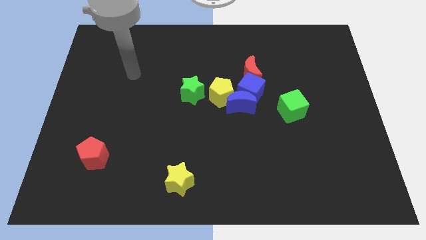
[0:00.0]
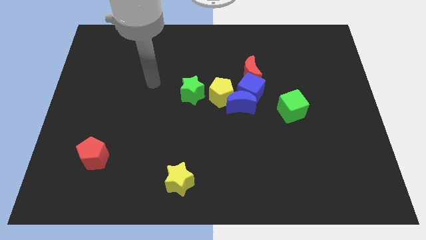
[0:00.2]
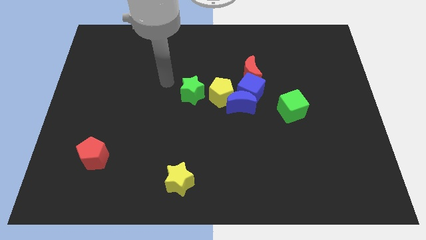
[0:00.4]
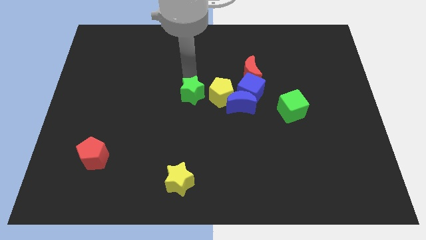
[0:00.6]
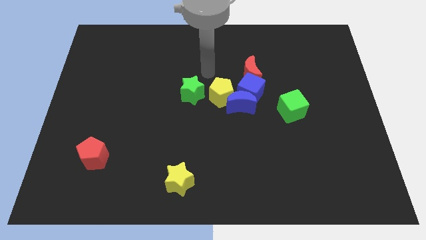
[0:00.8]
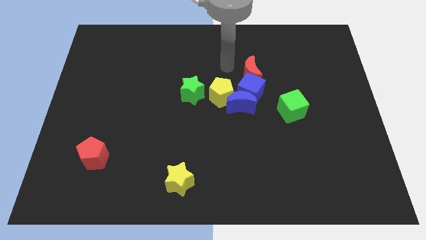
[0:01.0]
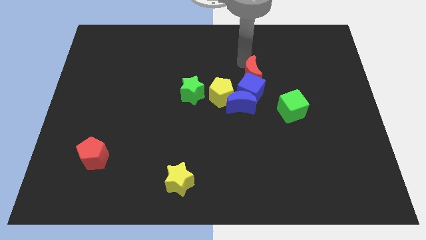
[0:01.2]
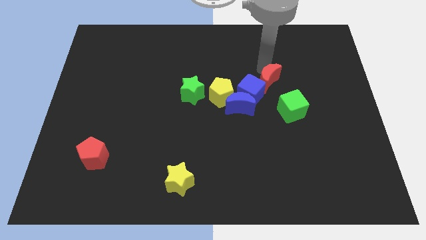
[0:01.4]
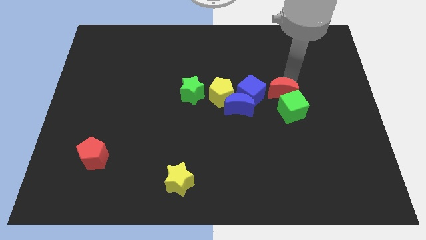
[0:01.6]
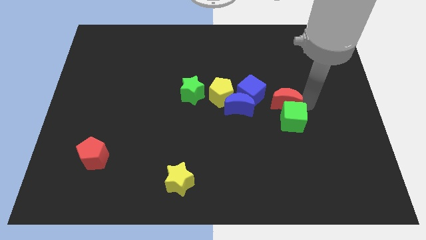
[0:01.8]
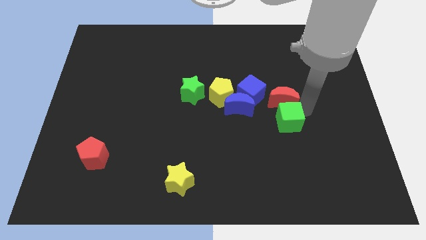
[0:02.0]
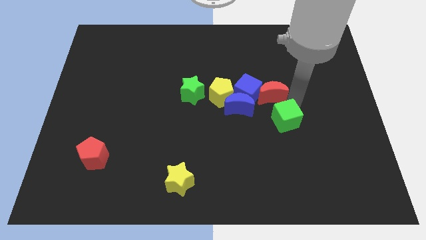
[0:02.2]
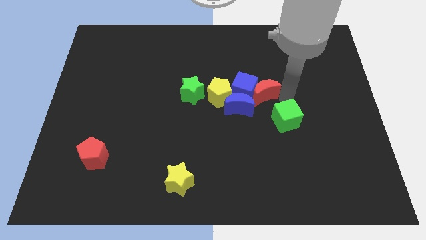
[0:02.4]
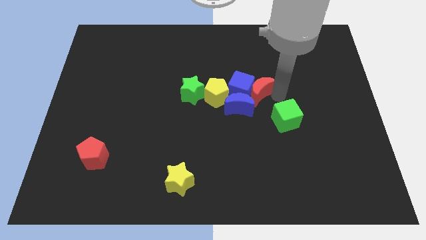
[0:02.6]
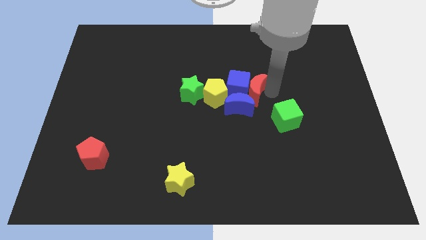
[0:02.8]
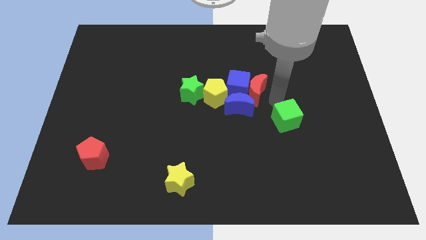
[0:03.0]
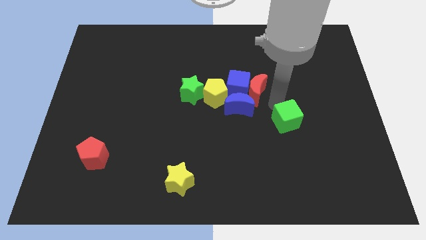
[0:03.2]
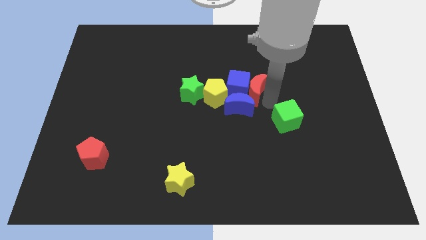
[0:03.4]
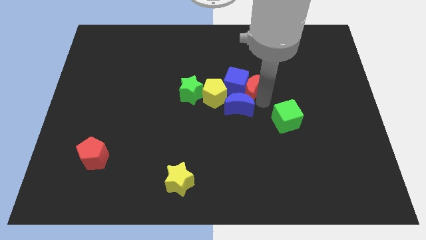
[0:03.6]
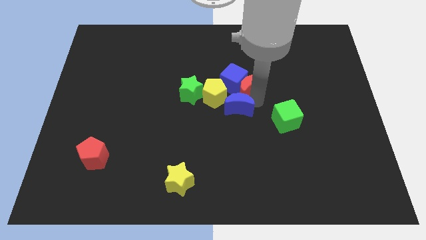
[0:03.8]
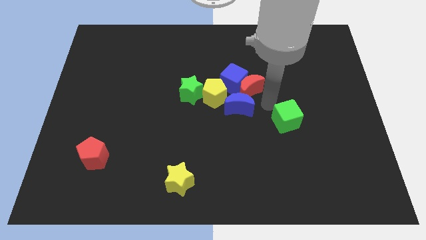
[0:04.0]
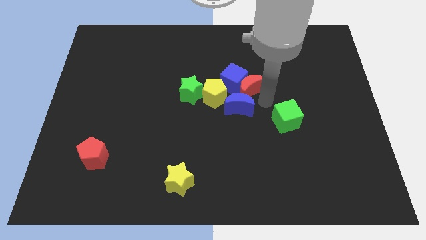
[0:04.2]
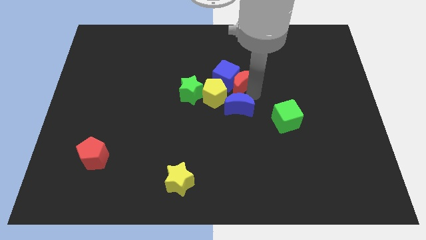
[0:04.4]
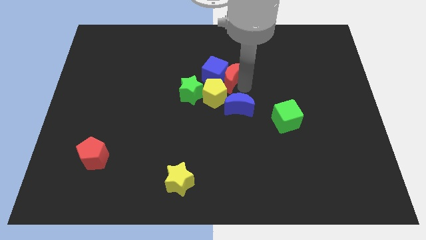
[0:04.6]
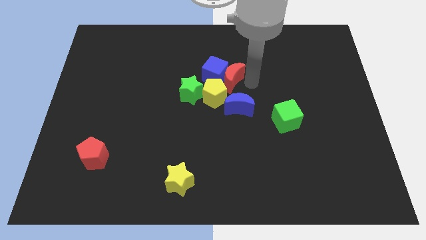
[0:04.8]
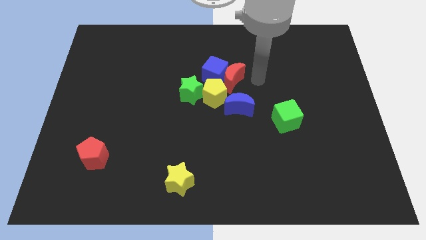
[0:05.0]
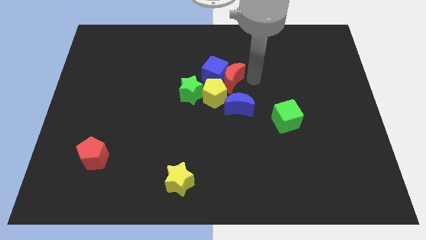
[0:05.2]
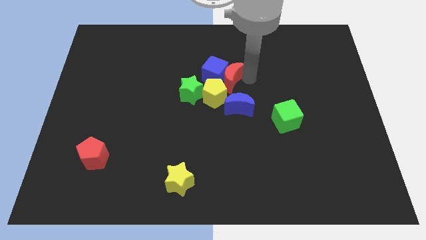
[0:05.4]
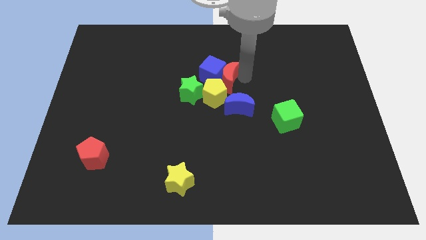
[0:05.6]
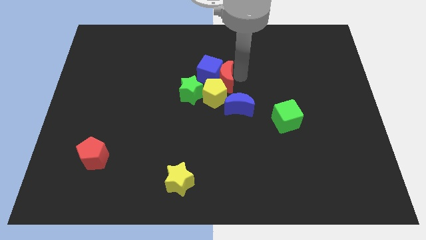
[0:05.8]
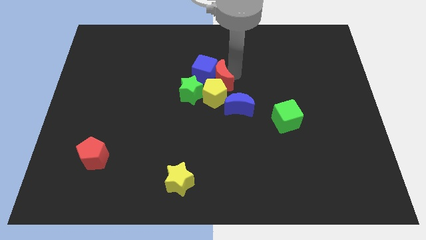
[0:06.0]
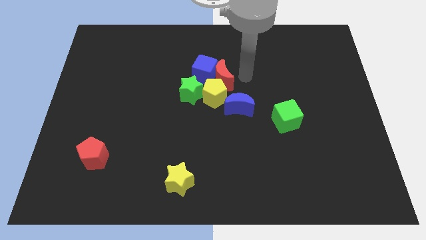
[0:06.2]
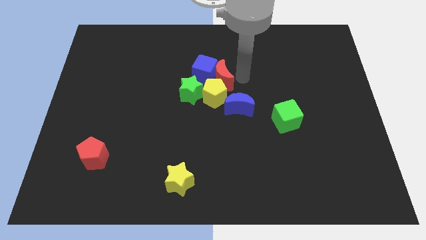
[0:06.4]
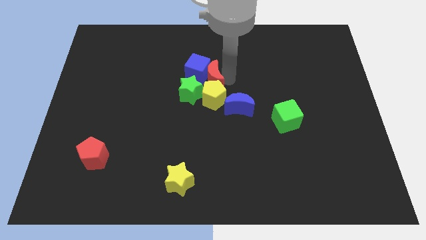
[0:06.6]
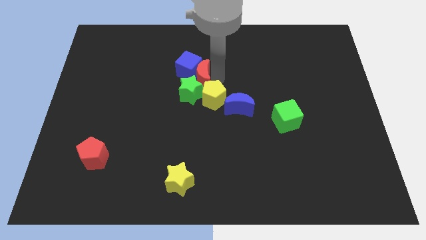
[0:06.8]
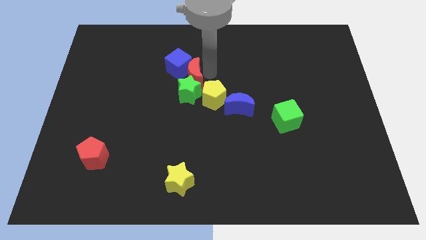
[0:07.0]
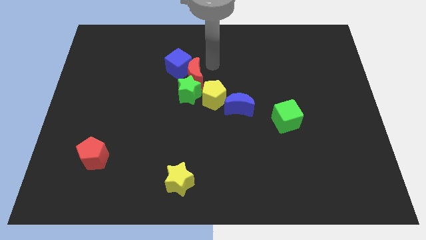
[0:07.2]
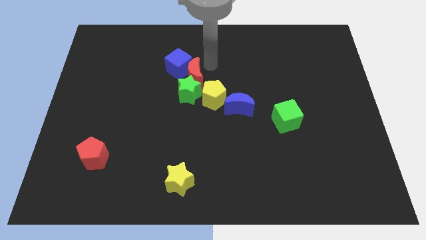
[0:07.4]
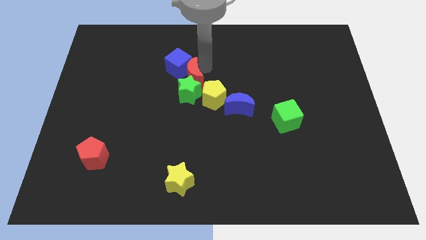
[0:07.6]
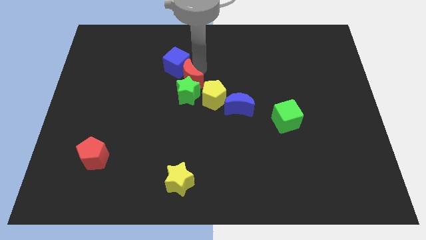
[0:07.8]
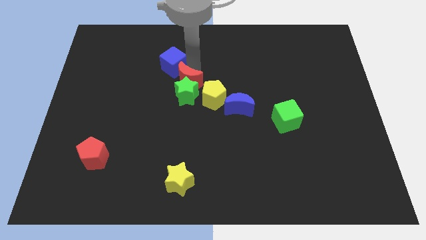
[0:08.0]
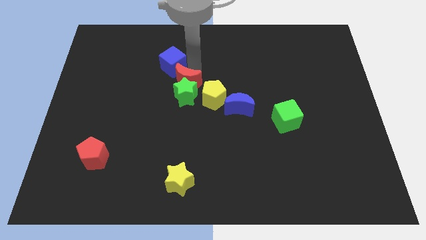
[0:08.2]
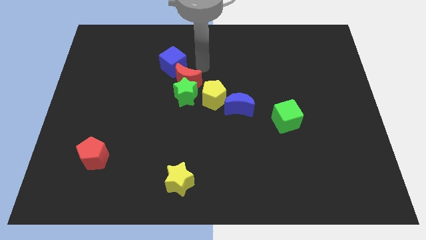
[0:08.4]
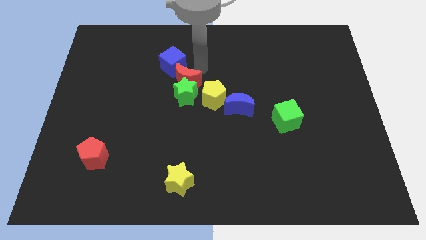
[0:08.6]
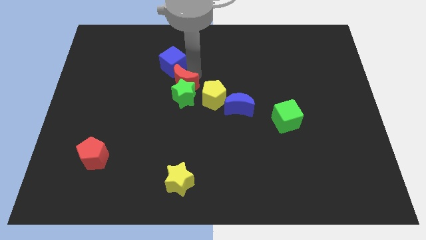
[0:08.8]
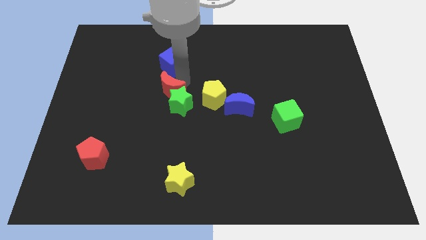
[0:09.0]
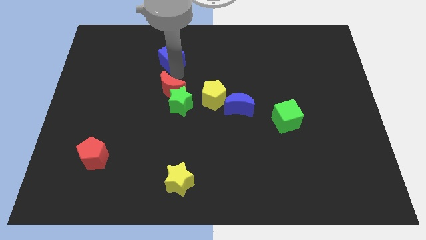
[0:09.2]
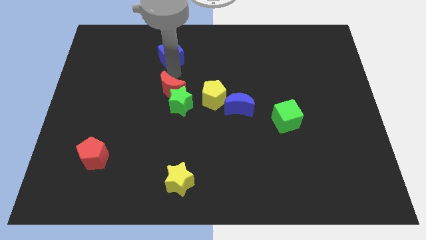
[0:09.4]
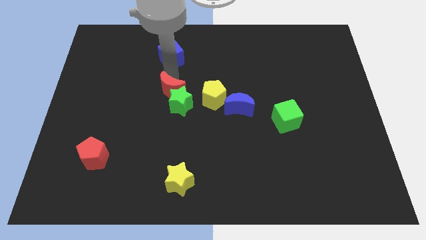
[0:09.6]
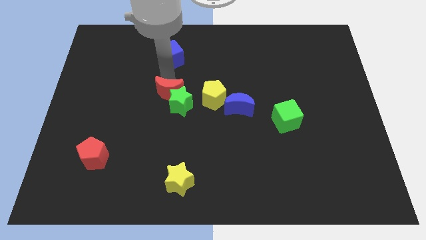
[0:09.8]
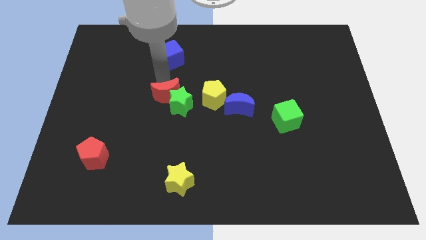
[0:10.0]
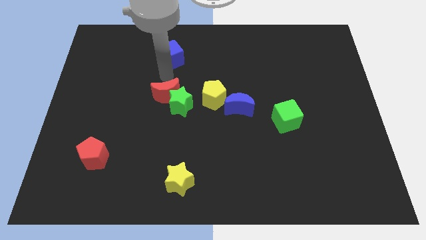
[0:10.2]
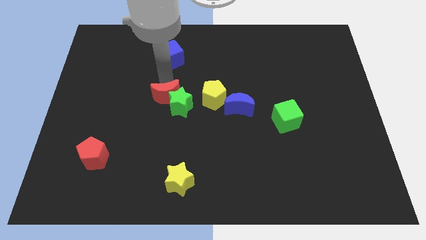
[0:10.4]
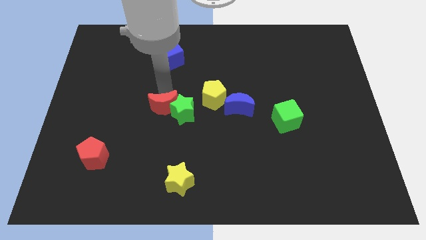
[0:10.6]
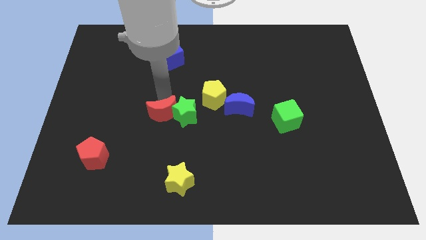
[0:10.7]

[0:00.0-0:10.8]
slide the red moon down and left diagonally

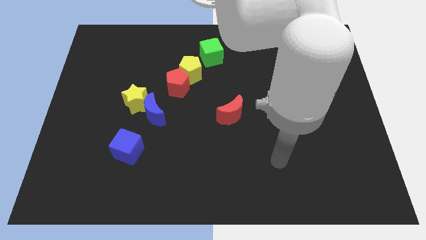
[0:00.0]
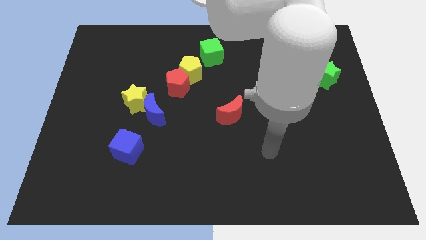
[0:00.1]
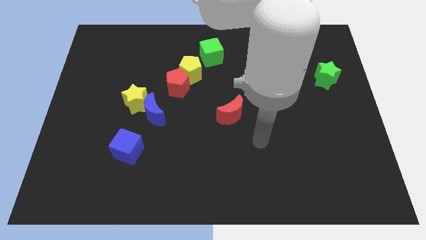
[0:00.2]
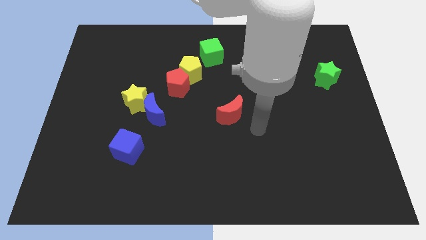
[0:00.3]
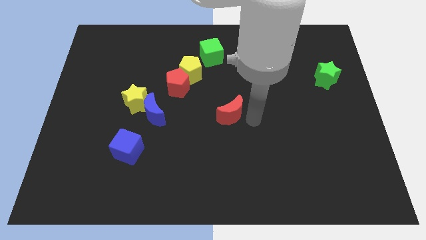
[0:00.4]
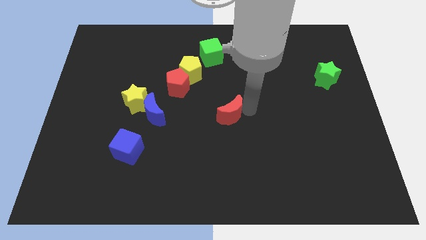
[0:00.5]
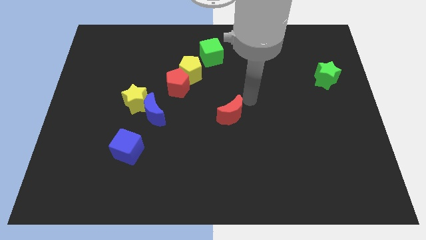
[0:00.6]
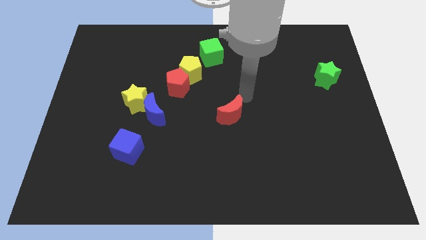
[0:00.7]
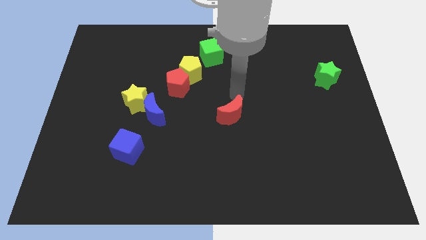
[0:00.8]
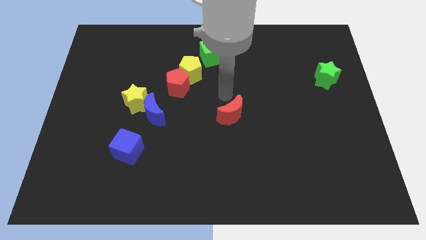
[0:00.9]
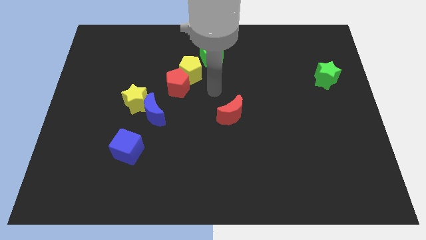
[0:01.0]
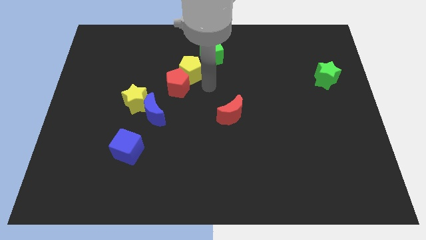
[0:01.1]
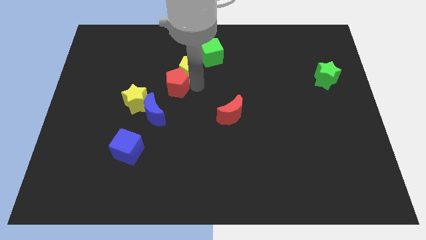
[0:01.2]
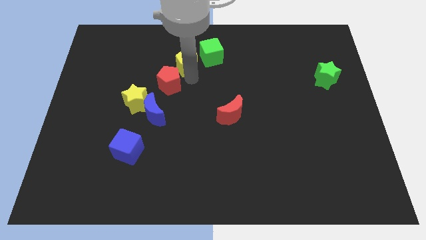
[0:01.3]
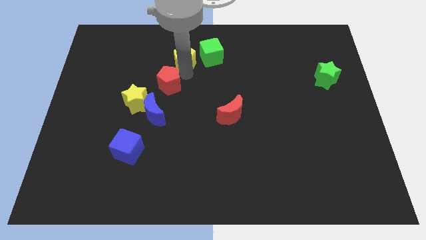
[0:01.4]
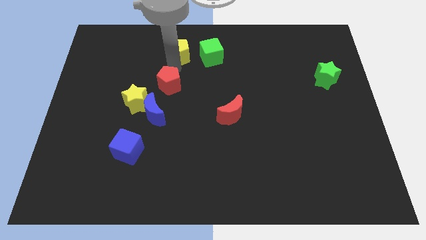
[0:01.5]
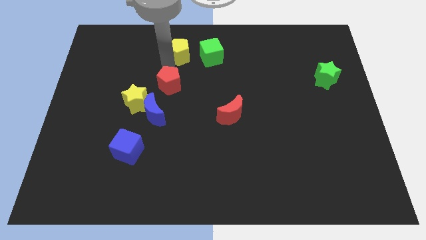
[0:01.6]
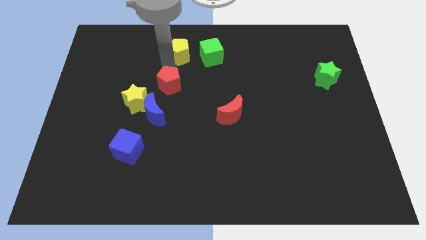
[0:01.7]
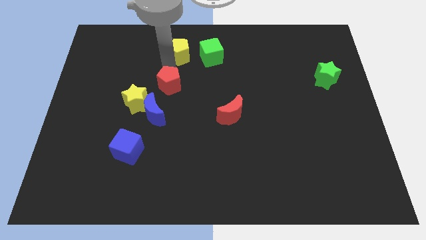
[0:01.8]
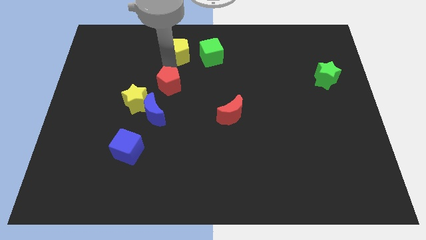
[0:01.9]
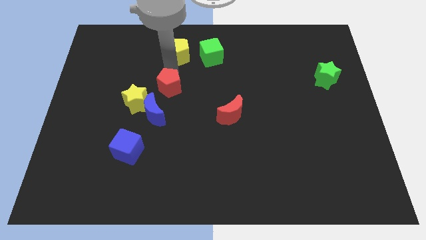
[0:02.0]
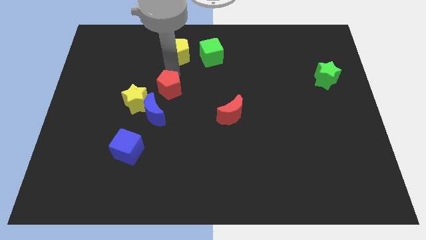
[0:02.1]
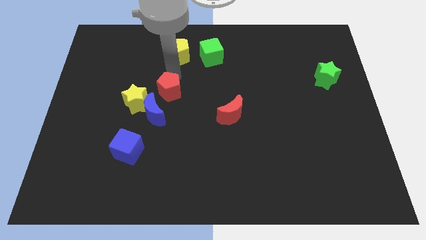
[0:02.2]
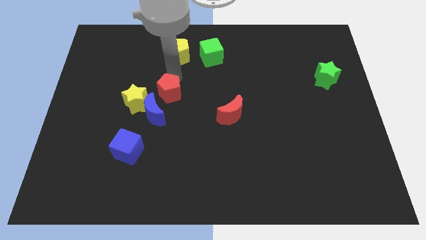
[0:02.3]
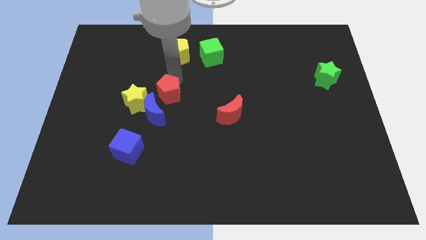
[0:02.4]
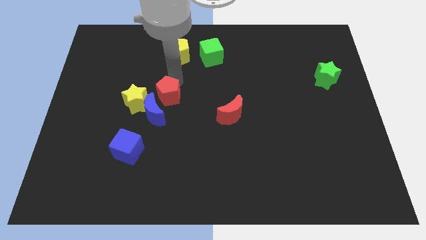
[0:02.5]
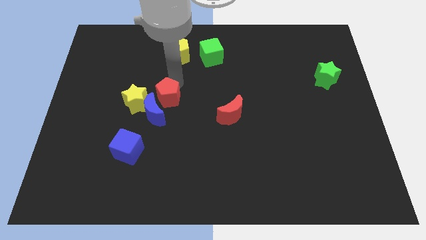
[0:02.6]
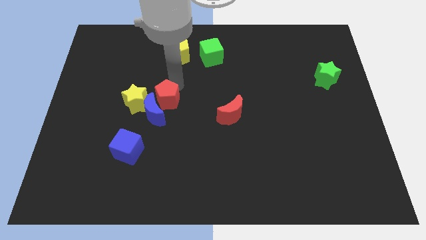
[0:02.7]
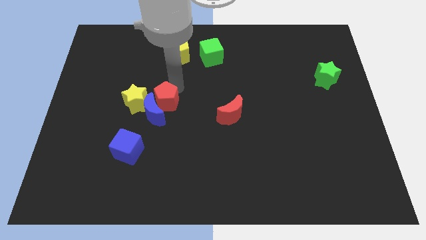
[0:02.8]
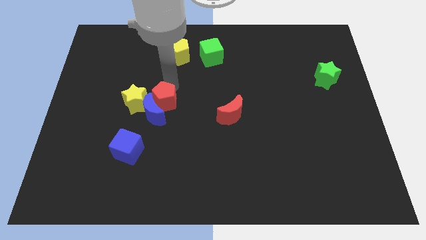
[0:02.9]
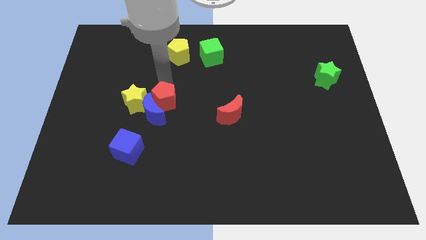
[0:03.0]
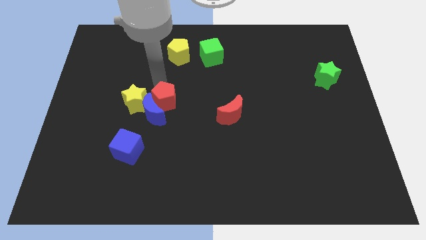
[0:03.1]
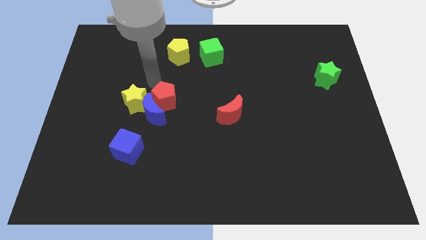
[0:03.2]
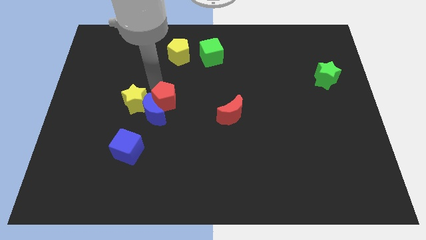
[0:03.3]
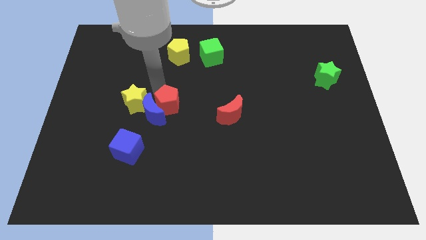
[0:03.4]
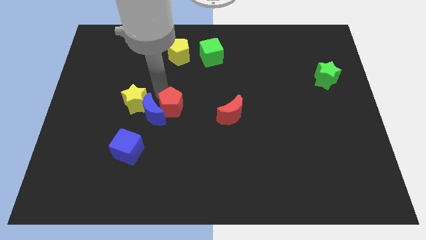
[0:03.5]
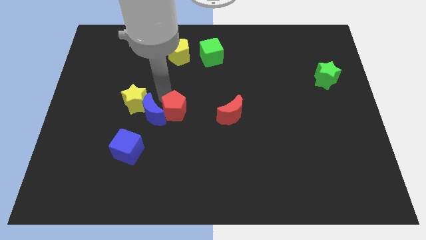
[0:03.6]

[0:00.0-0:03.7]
slightly slide the red pentagon down
